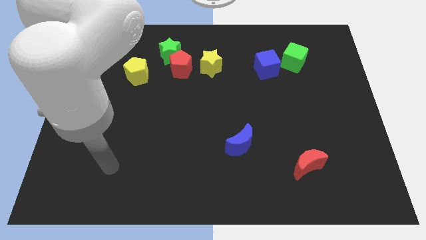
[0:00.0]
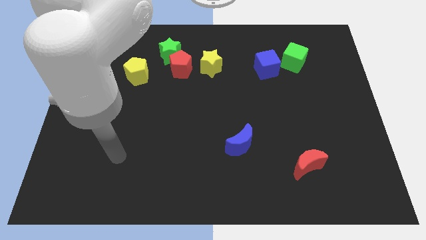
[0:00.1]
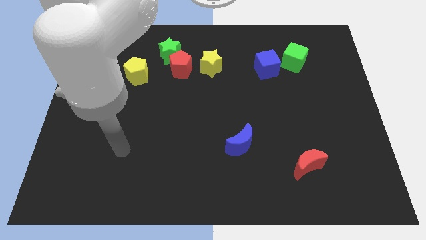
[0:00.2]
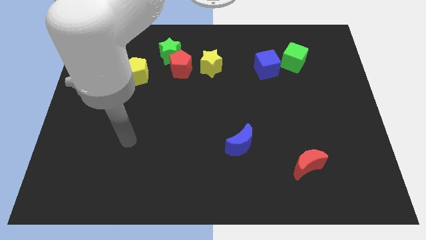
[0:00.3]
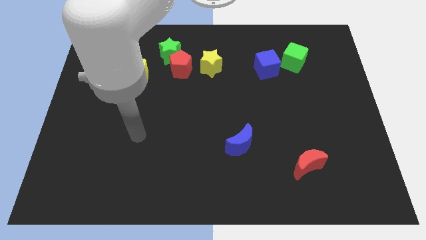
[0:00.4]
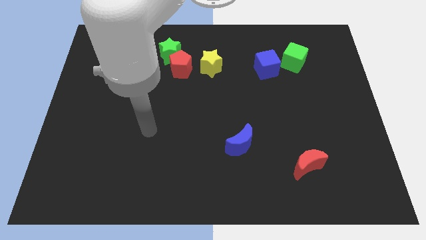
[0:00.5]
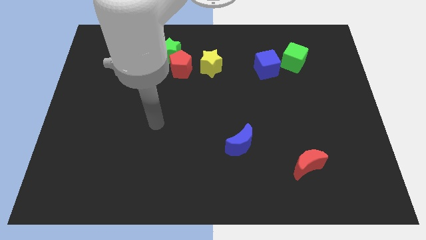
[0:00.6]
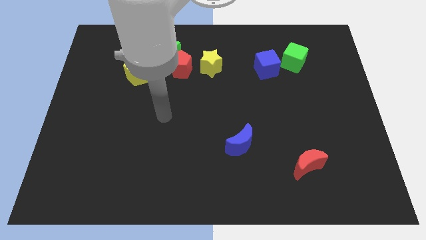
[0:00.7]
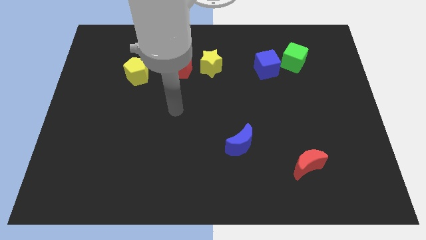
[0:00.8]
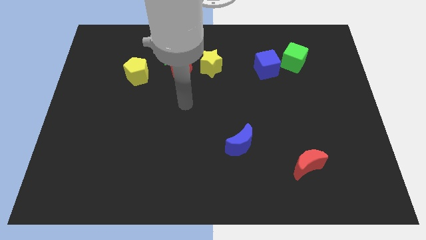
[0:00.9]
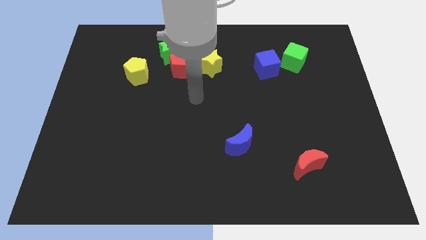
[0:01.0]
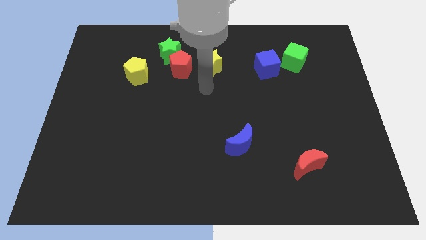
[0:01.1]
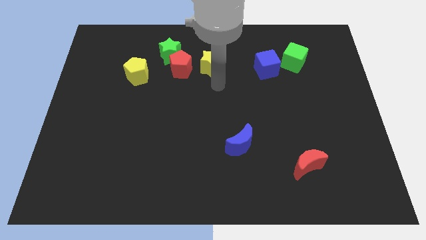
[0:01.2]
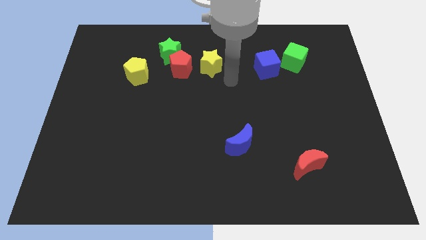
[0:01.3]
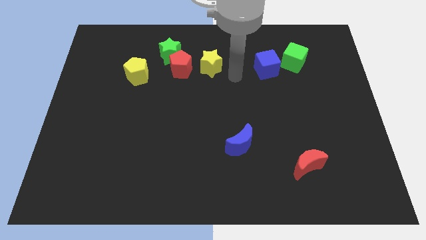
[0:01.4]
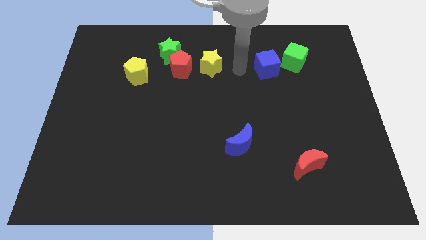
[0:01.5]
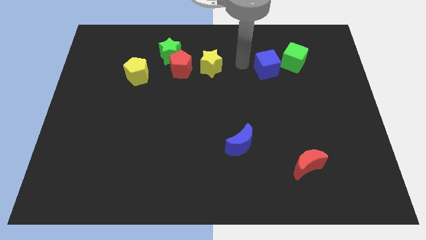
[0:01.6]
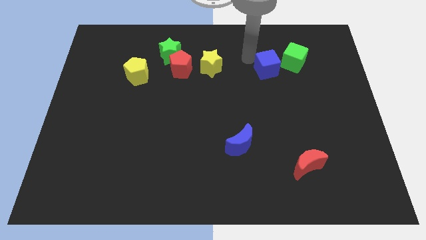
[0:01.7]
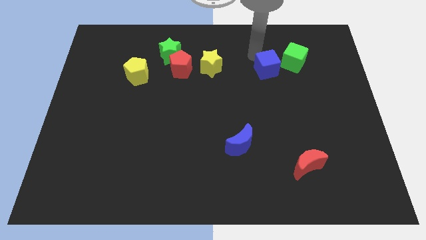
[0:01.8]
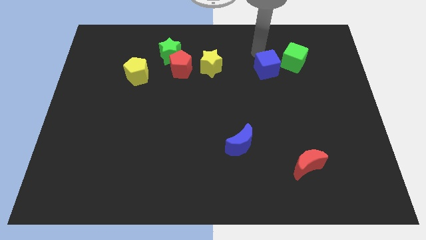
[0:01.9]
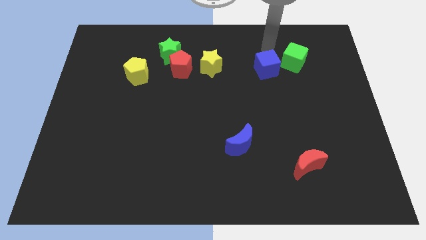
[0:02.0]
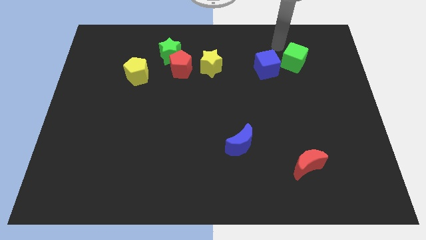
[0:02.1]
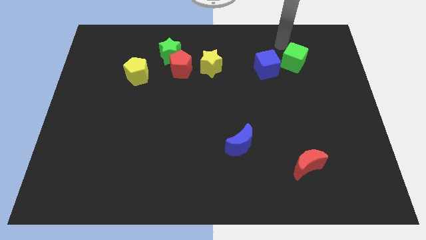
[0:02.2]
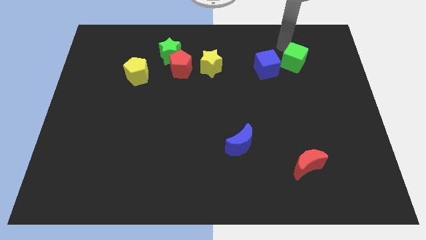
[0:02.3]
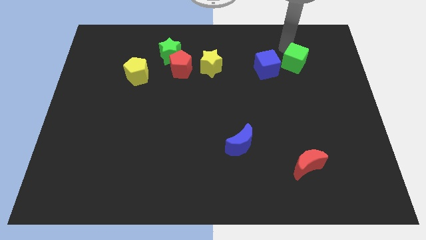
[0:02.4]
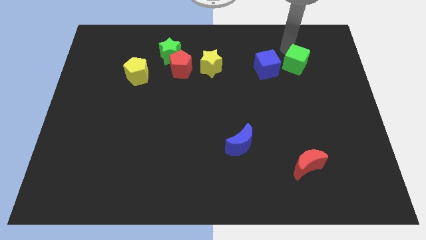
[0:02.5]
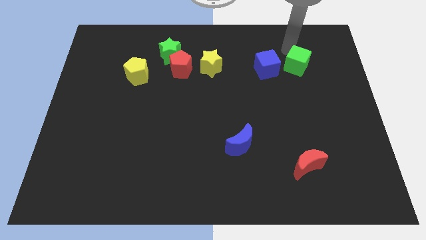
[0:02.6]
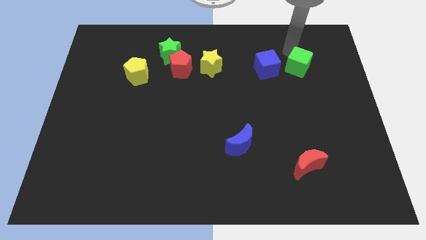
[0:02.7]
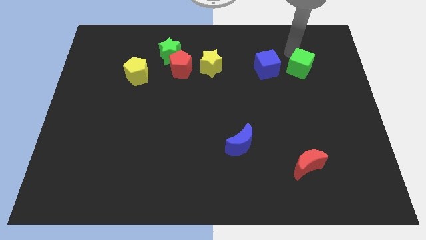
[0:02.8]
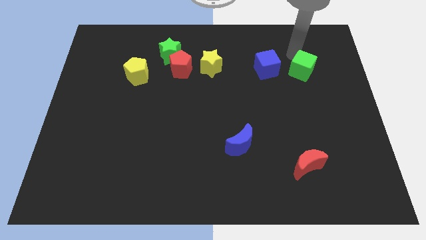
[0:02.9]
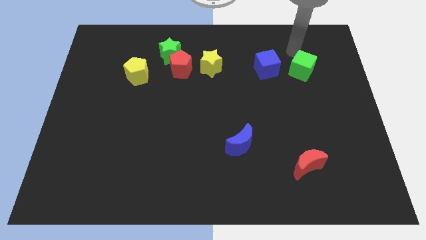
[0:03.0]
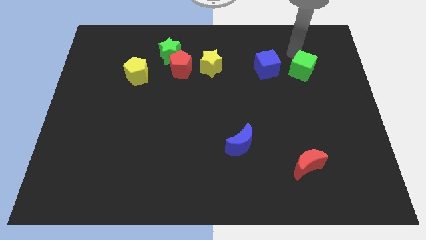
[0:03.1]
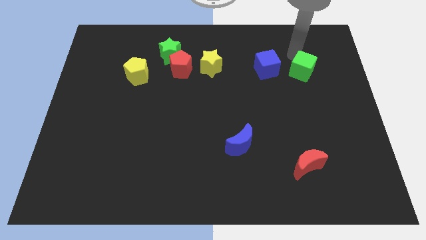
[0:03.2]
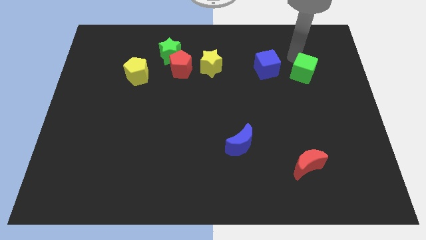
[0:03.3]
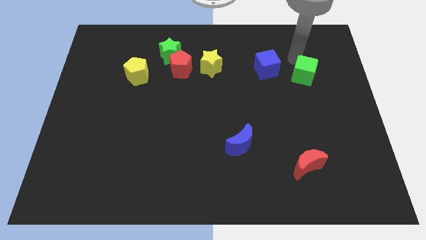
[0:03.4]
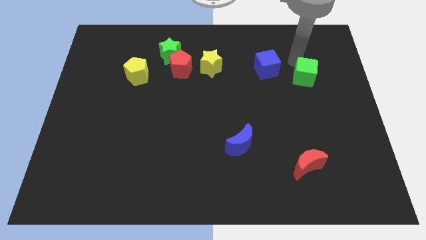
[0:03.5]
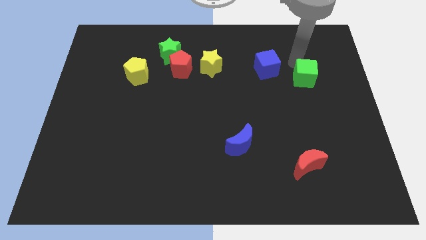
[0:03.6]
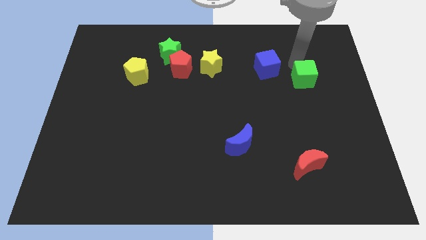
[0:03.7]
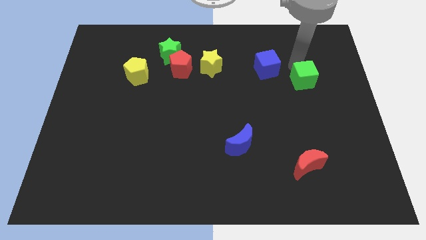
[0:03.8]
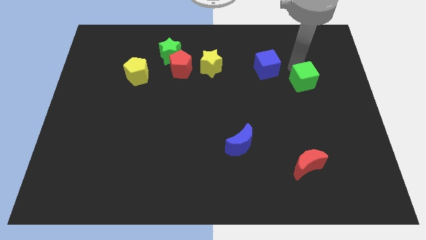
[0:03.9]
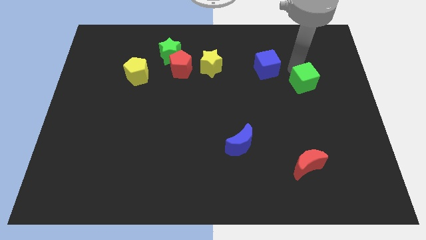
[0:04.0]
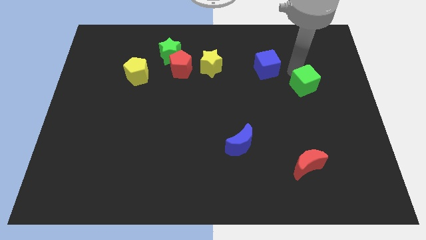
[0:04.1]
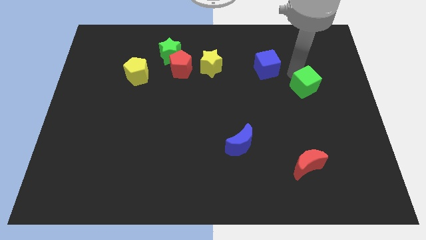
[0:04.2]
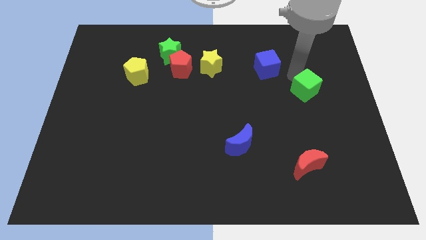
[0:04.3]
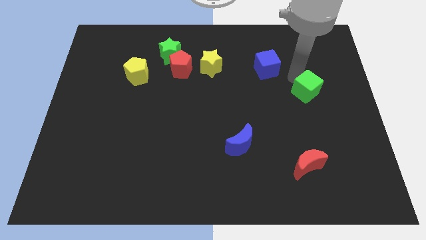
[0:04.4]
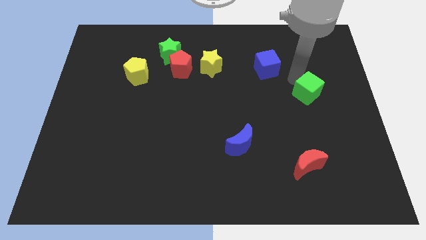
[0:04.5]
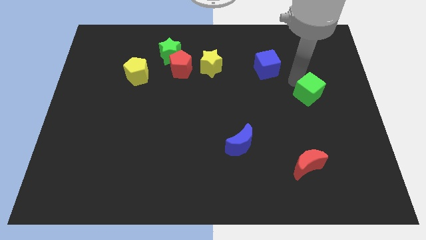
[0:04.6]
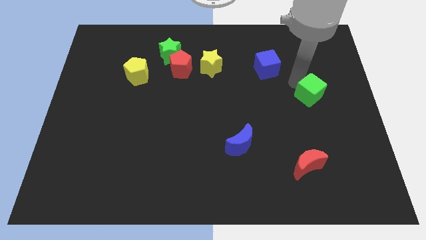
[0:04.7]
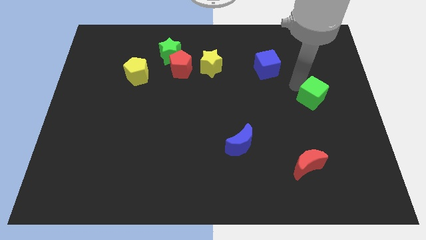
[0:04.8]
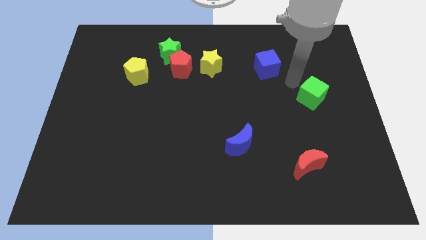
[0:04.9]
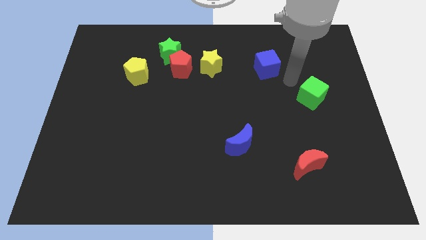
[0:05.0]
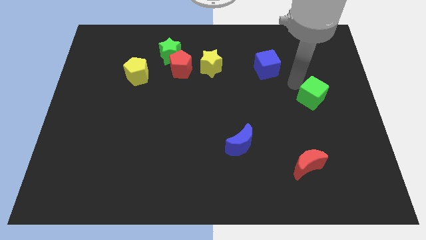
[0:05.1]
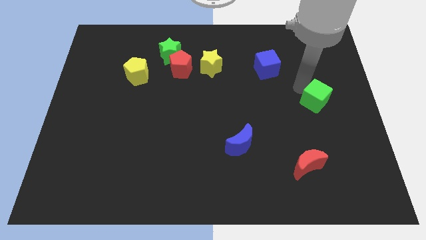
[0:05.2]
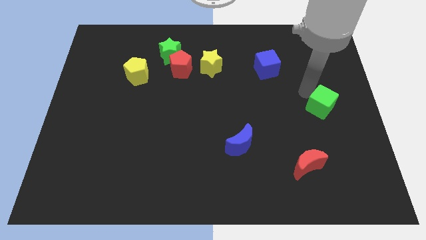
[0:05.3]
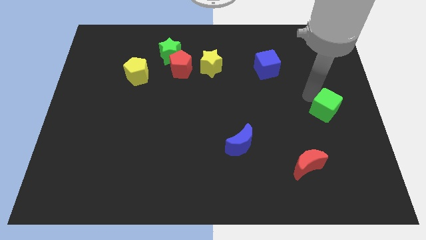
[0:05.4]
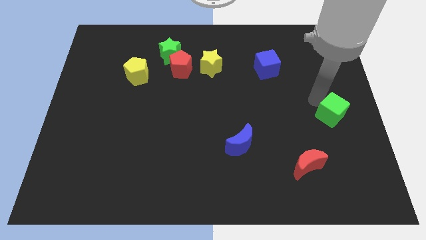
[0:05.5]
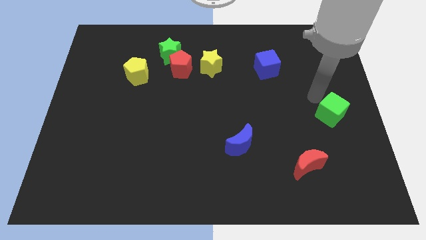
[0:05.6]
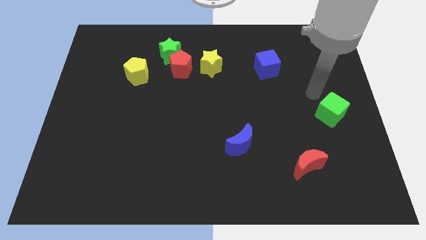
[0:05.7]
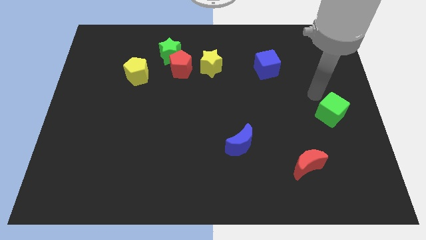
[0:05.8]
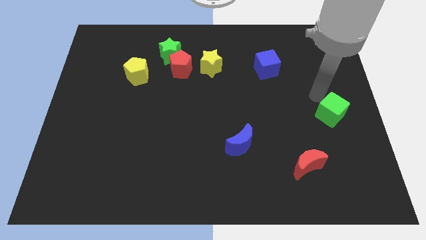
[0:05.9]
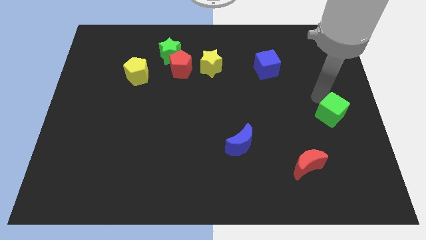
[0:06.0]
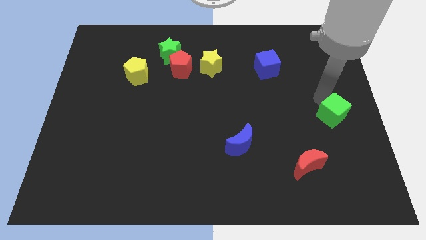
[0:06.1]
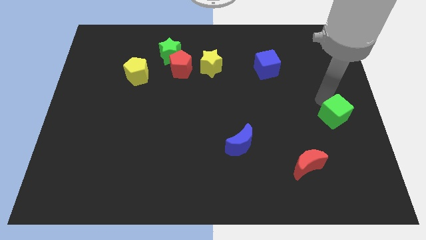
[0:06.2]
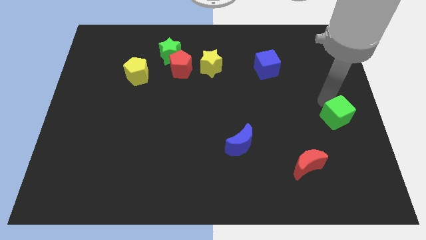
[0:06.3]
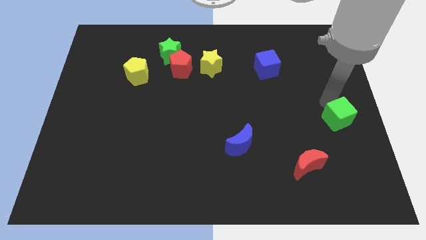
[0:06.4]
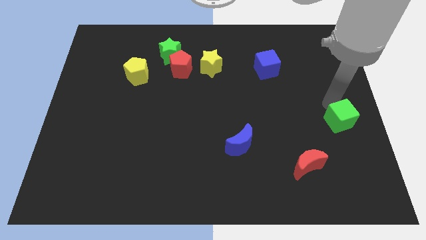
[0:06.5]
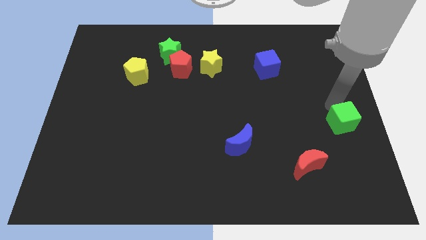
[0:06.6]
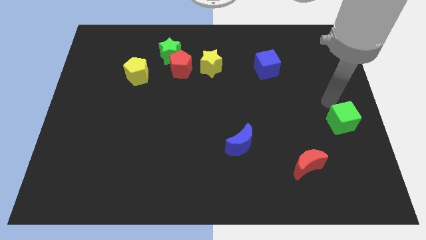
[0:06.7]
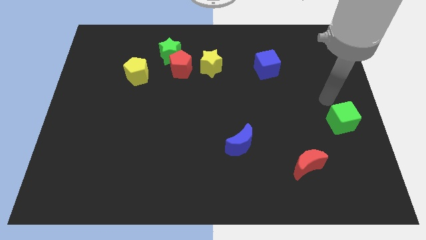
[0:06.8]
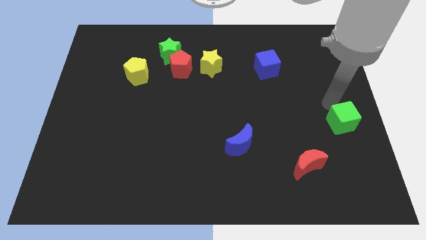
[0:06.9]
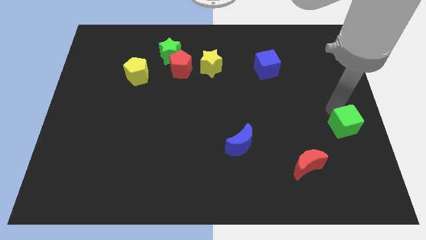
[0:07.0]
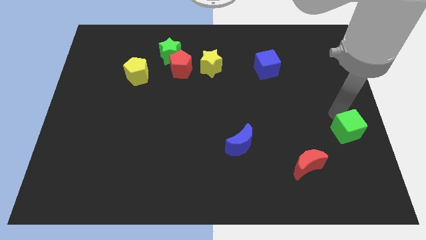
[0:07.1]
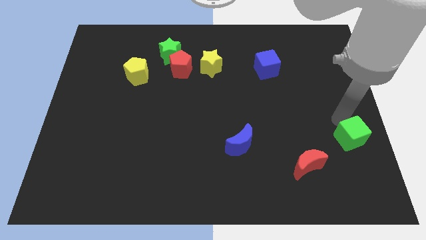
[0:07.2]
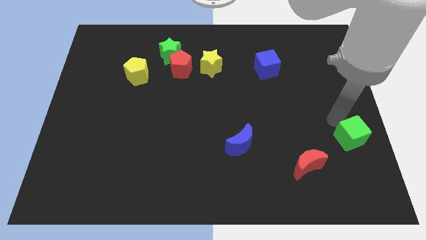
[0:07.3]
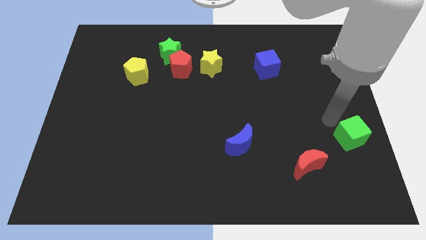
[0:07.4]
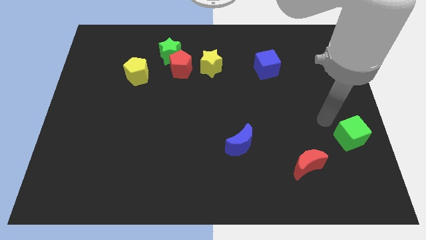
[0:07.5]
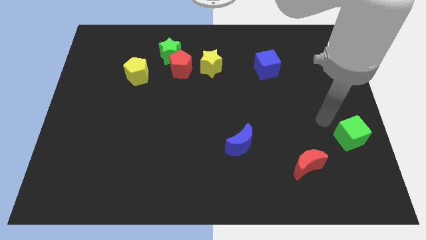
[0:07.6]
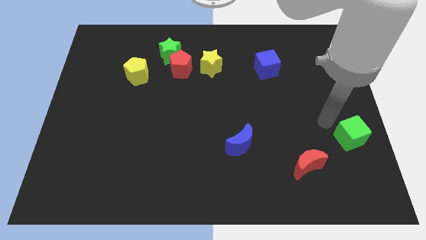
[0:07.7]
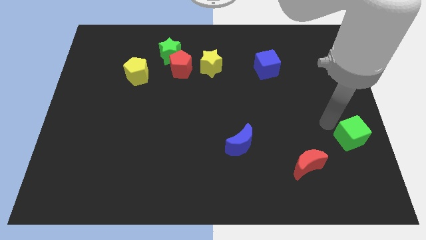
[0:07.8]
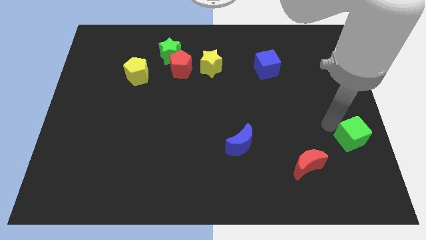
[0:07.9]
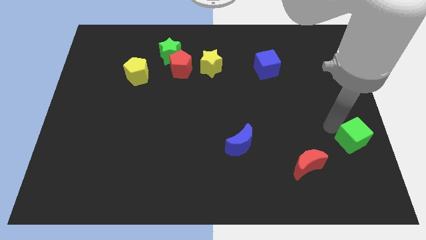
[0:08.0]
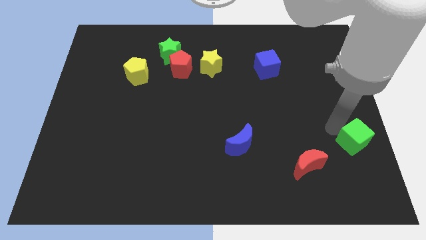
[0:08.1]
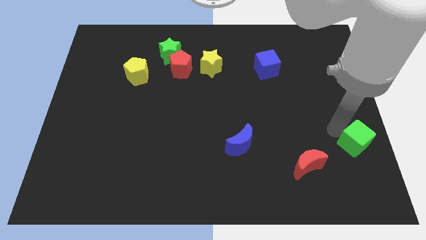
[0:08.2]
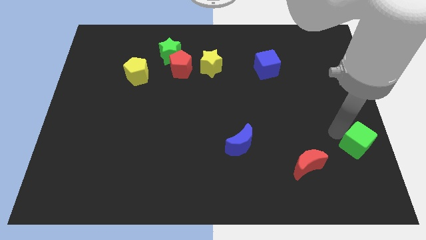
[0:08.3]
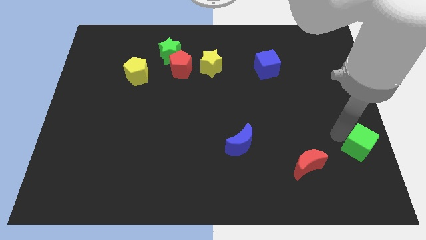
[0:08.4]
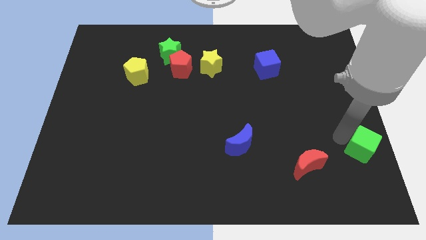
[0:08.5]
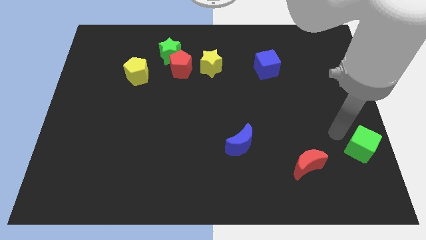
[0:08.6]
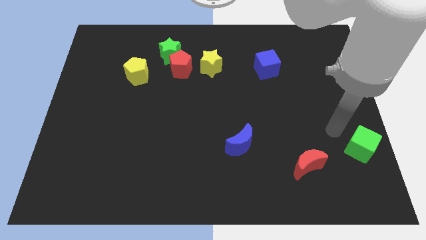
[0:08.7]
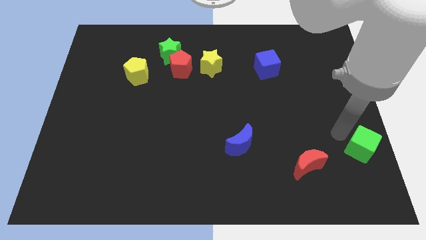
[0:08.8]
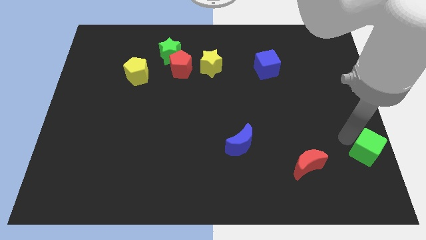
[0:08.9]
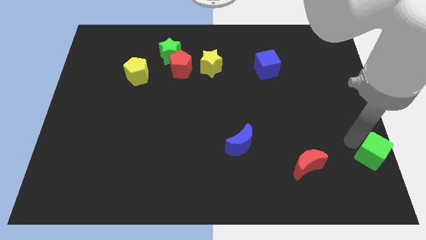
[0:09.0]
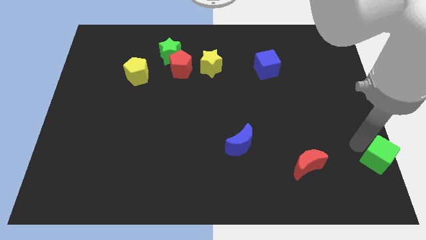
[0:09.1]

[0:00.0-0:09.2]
put the green cube to the bottom right
